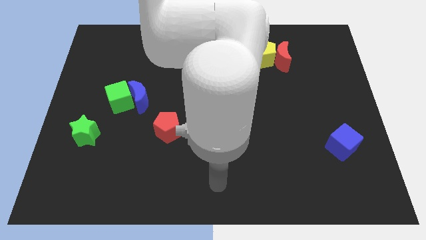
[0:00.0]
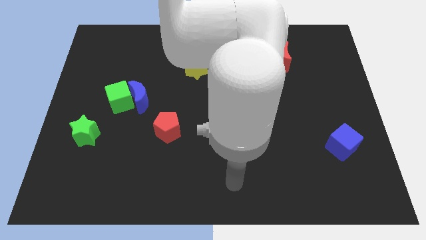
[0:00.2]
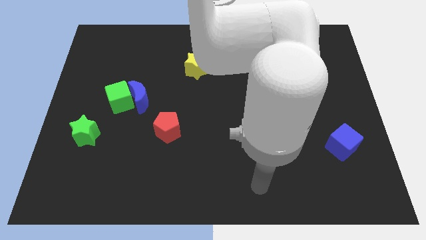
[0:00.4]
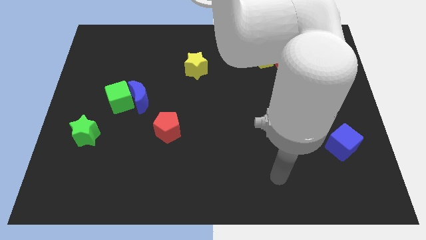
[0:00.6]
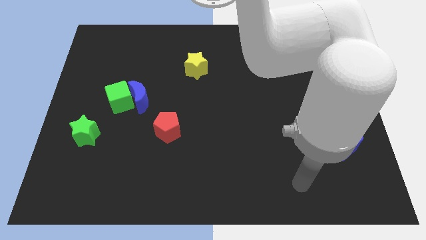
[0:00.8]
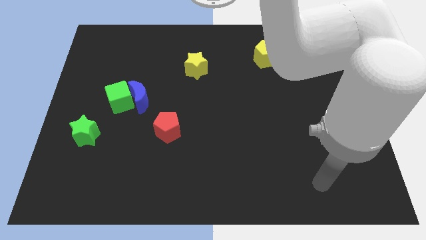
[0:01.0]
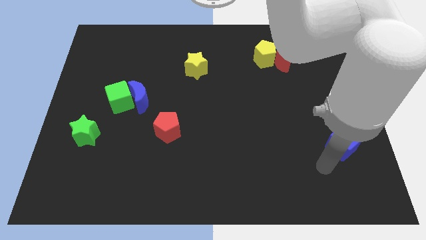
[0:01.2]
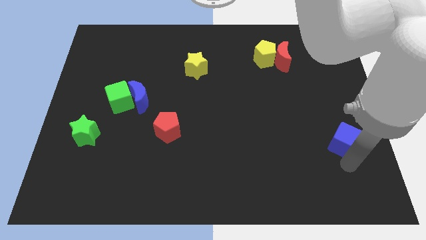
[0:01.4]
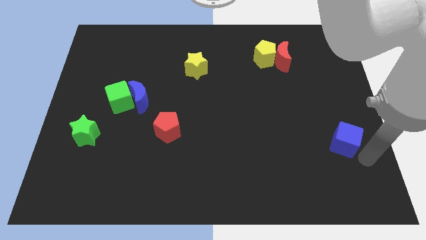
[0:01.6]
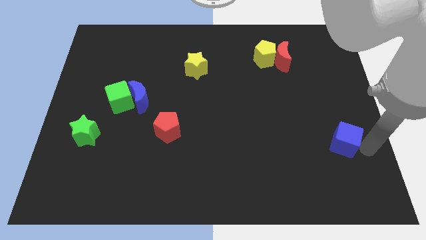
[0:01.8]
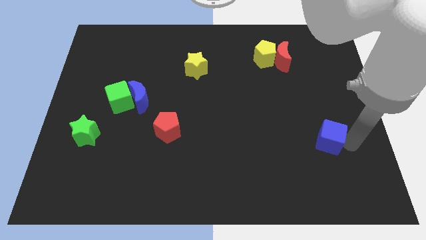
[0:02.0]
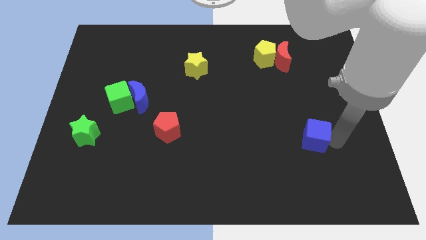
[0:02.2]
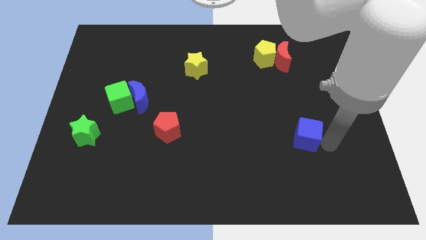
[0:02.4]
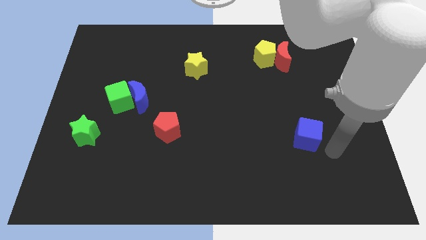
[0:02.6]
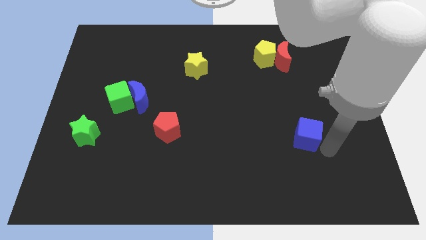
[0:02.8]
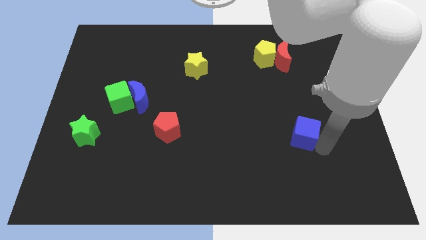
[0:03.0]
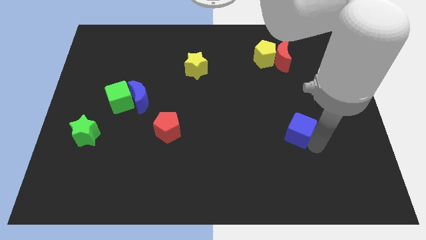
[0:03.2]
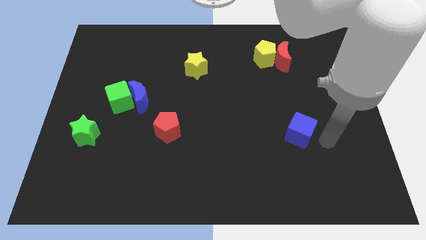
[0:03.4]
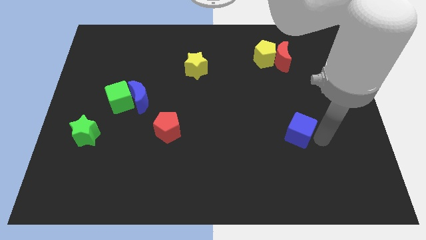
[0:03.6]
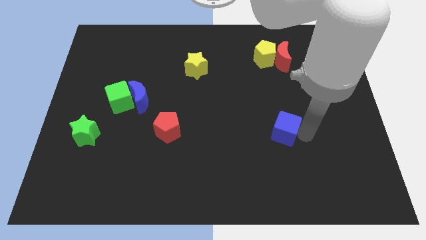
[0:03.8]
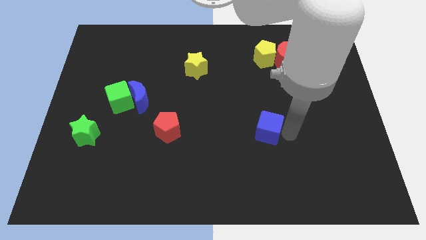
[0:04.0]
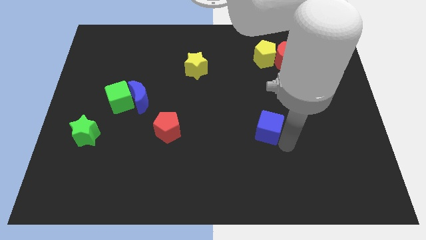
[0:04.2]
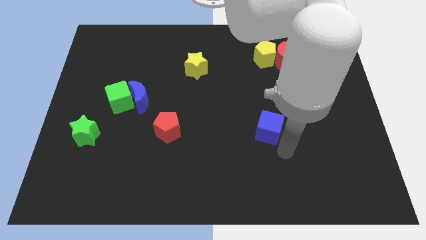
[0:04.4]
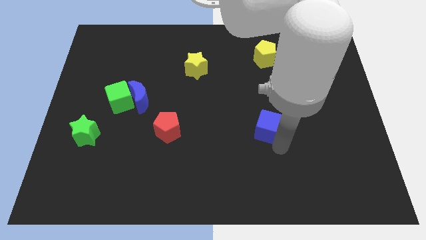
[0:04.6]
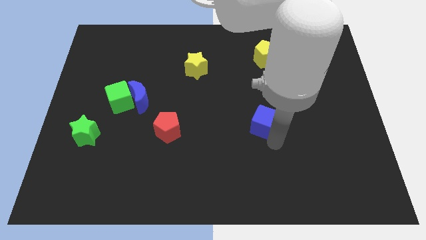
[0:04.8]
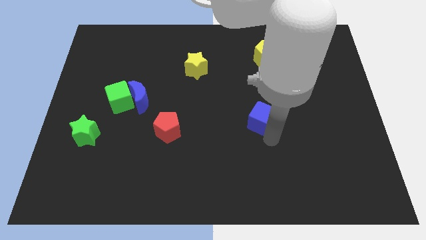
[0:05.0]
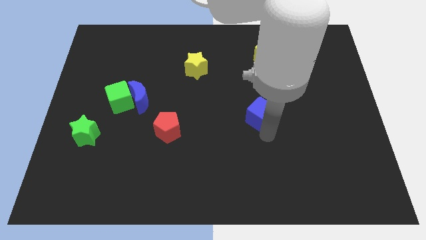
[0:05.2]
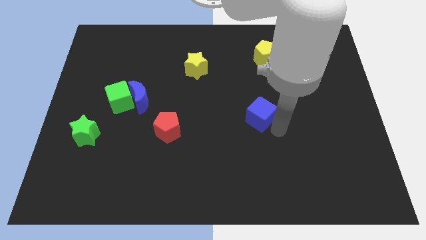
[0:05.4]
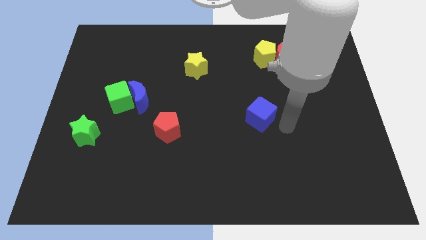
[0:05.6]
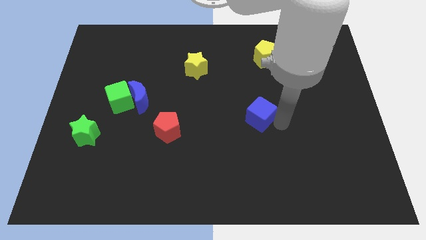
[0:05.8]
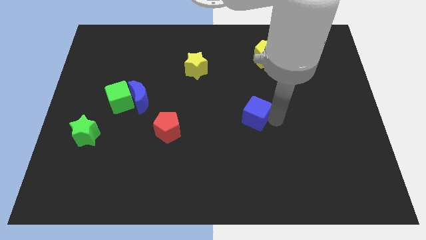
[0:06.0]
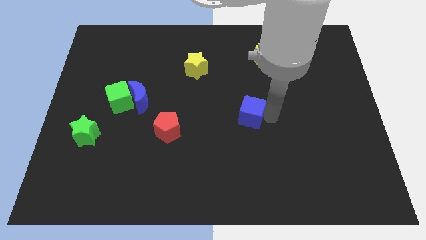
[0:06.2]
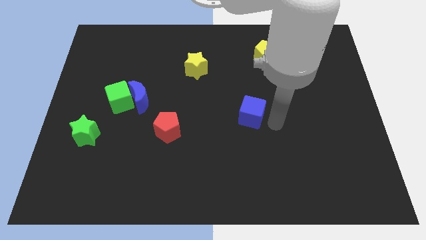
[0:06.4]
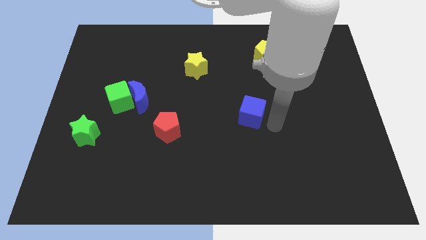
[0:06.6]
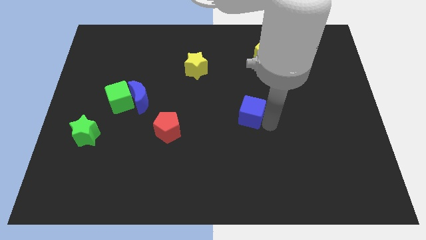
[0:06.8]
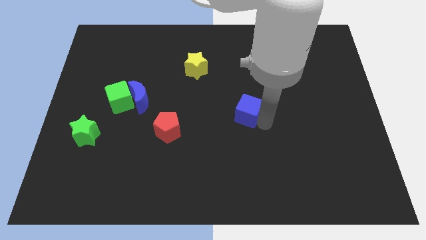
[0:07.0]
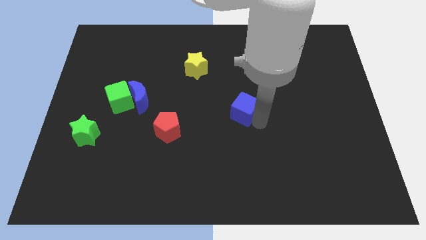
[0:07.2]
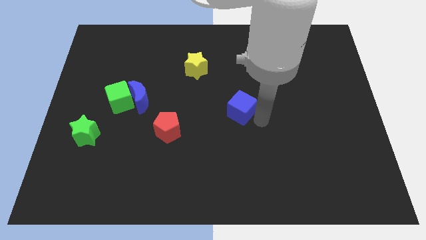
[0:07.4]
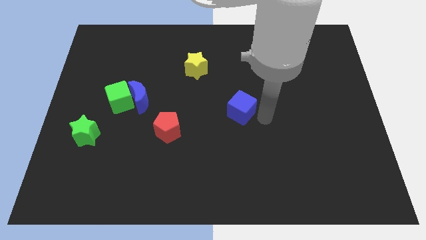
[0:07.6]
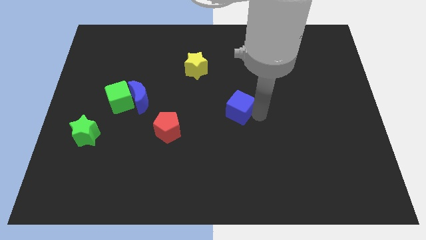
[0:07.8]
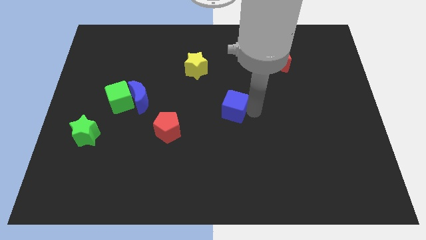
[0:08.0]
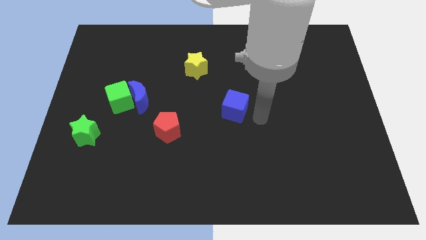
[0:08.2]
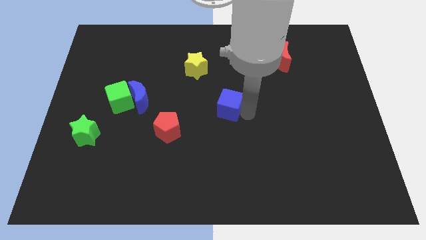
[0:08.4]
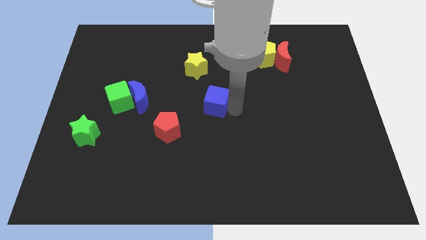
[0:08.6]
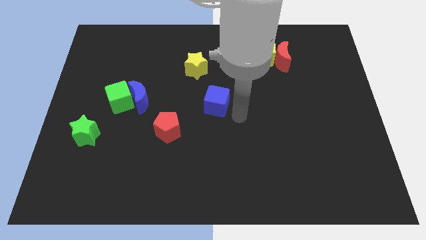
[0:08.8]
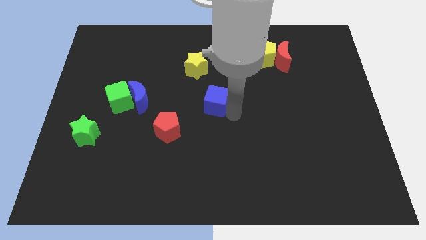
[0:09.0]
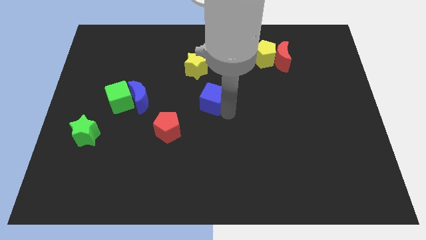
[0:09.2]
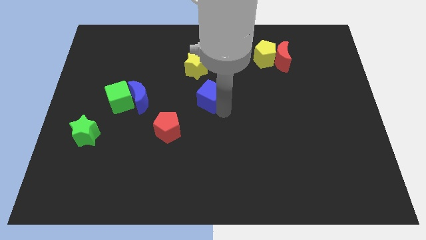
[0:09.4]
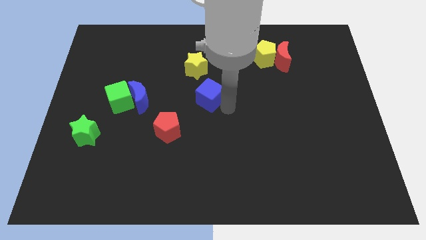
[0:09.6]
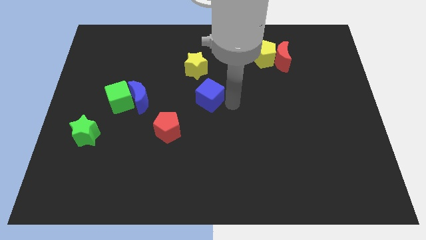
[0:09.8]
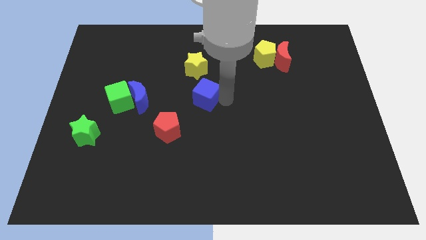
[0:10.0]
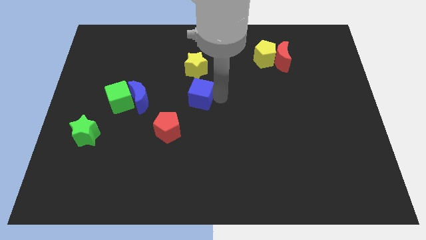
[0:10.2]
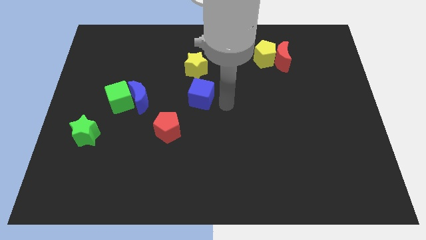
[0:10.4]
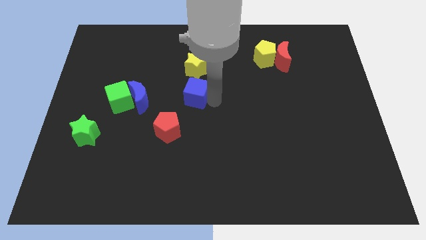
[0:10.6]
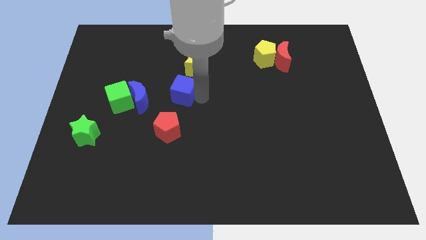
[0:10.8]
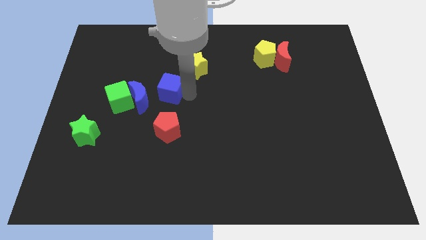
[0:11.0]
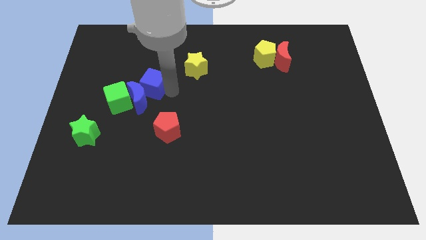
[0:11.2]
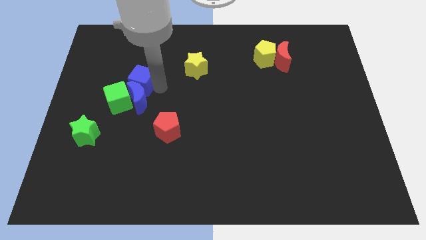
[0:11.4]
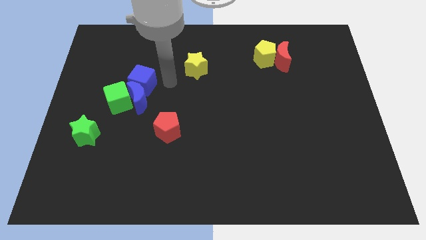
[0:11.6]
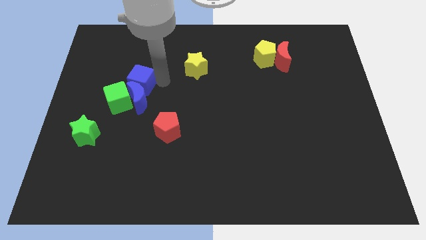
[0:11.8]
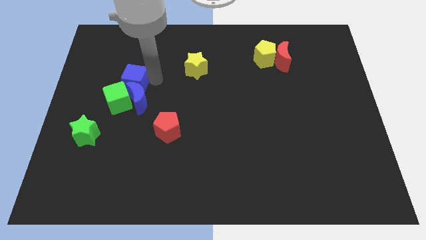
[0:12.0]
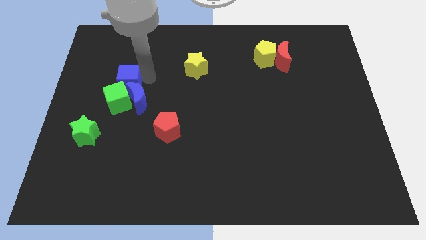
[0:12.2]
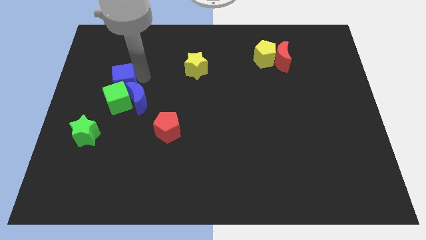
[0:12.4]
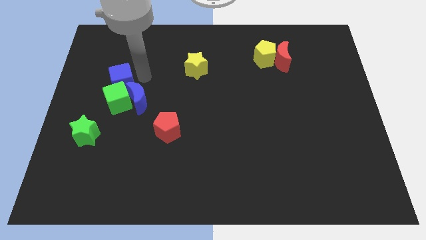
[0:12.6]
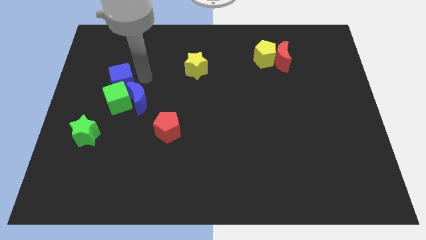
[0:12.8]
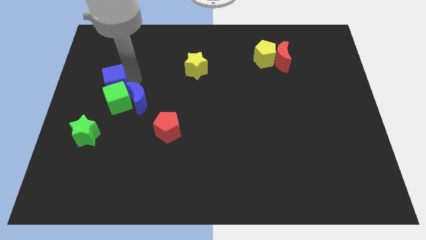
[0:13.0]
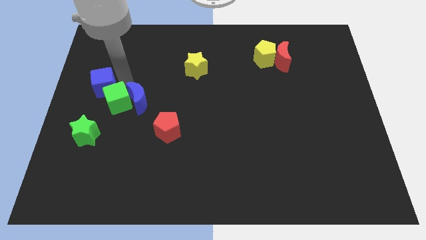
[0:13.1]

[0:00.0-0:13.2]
slide the blue cube to the center left
